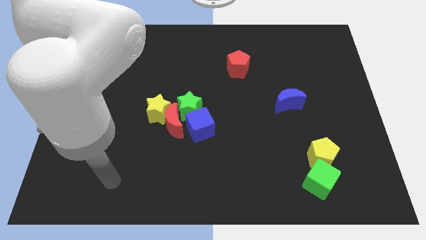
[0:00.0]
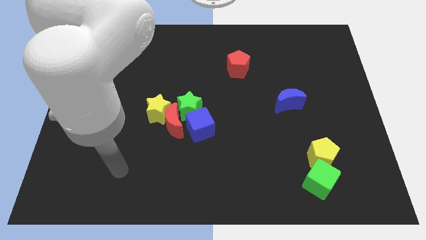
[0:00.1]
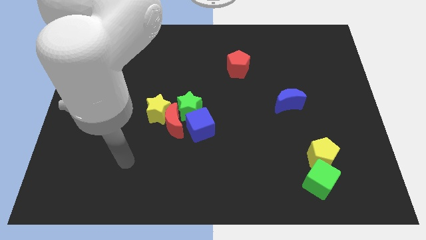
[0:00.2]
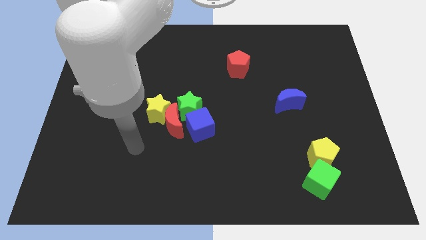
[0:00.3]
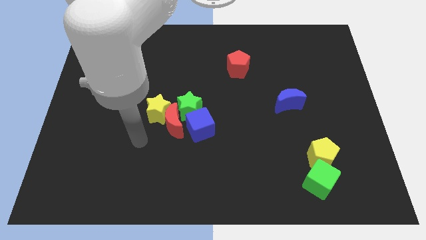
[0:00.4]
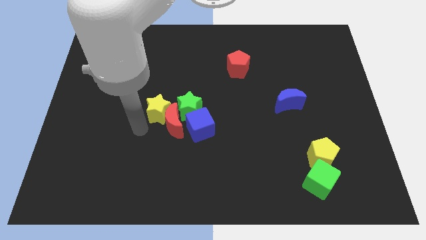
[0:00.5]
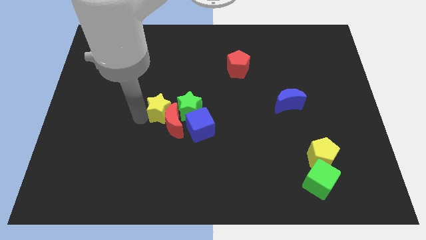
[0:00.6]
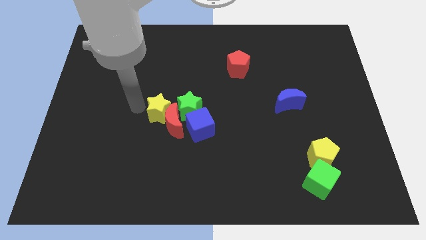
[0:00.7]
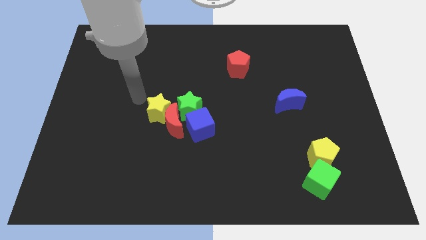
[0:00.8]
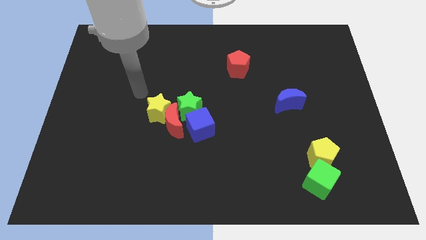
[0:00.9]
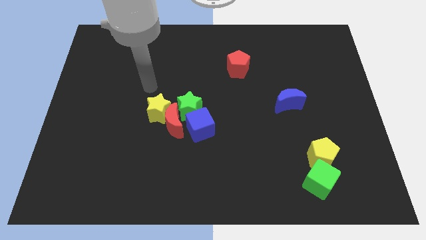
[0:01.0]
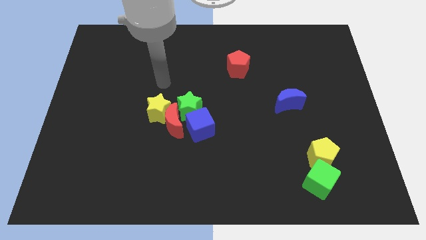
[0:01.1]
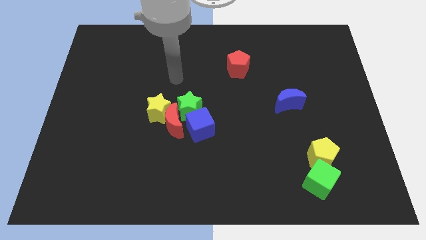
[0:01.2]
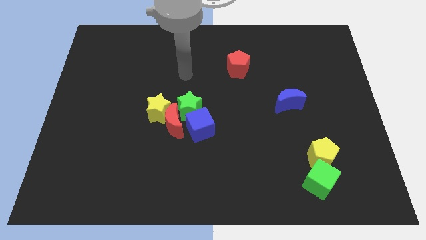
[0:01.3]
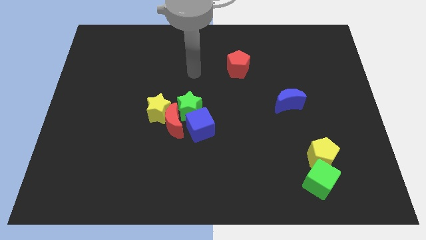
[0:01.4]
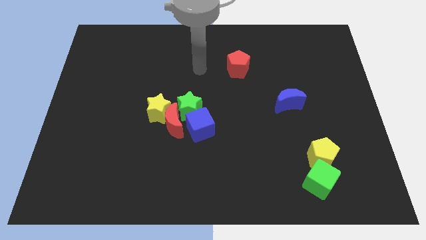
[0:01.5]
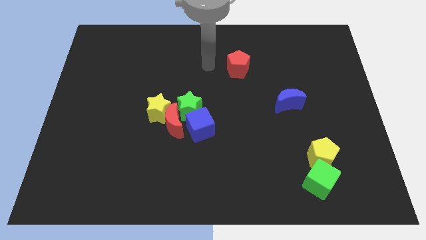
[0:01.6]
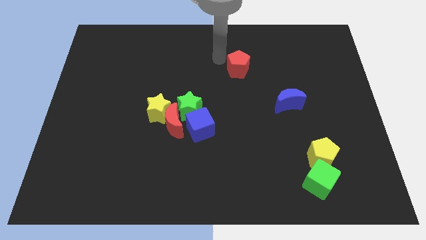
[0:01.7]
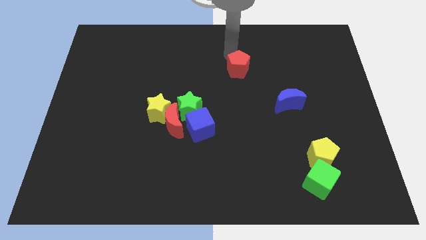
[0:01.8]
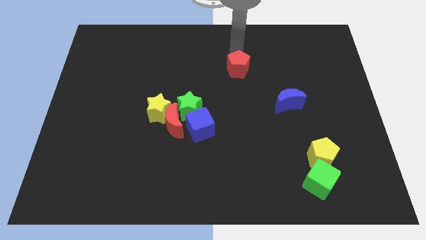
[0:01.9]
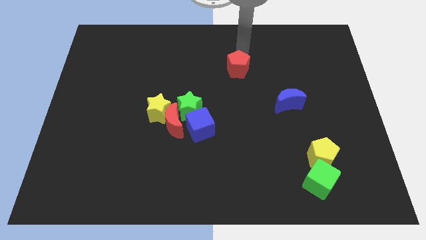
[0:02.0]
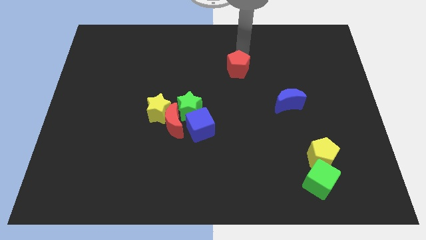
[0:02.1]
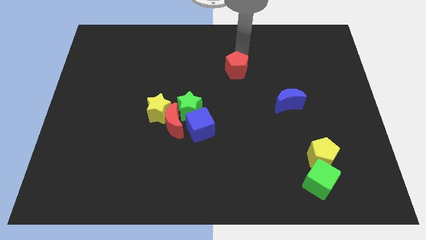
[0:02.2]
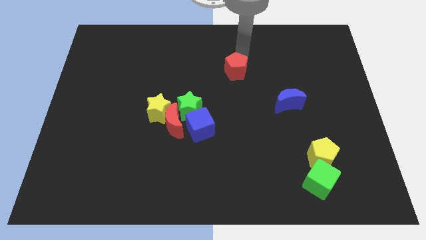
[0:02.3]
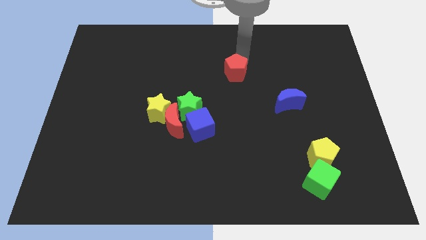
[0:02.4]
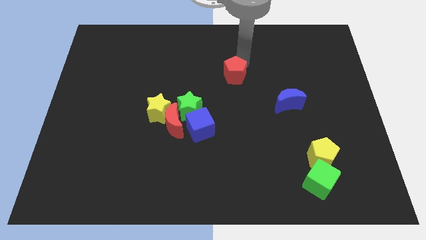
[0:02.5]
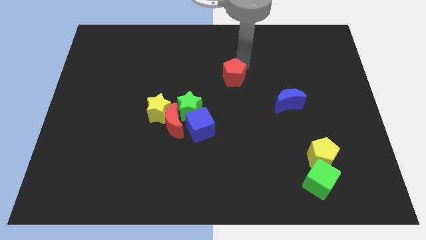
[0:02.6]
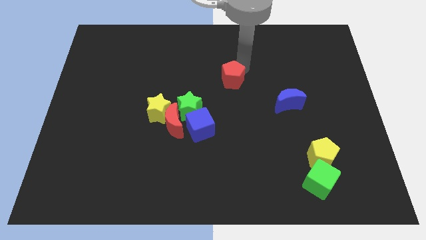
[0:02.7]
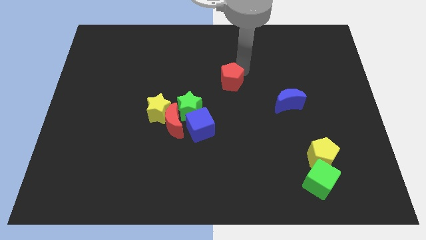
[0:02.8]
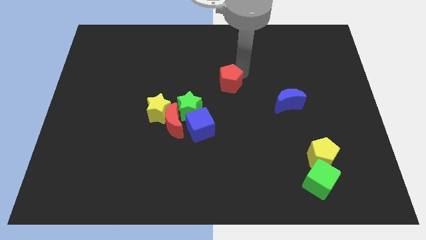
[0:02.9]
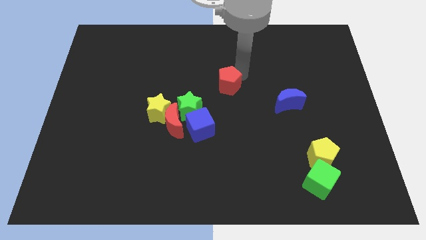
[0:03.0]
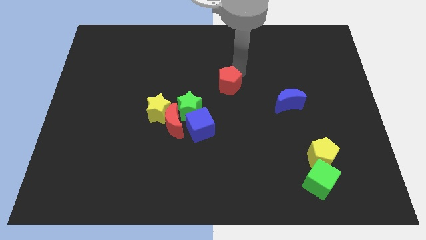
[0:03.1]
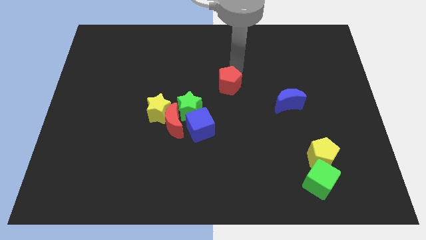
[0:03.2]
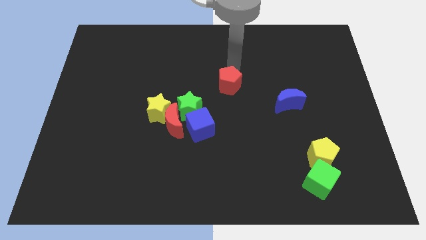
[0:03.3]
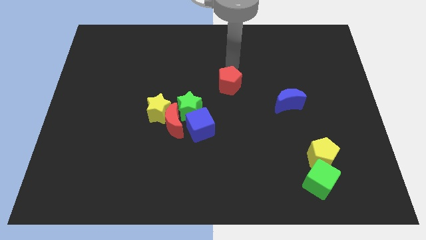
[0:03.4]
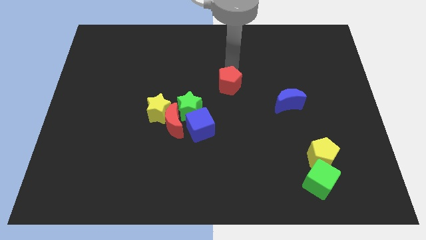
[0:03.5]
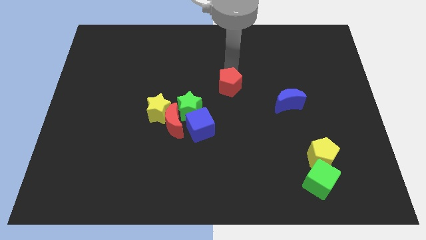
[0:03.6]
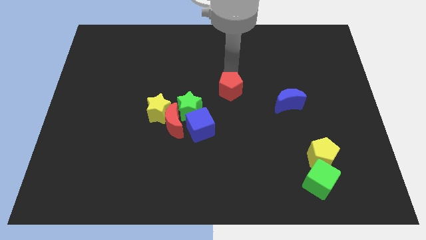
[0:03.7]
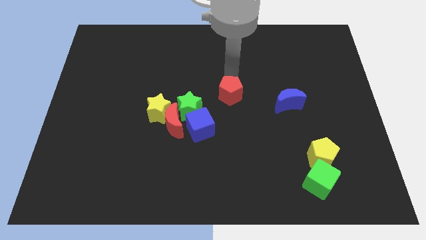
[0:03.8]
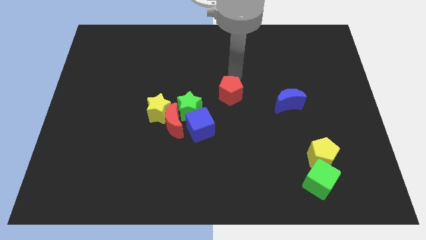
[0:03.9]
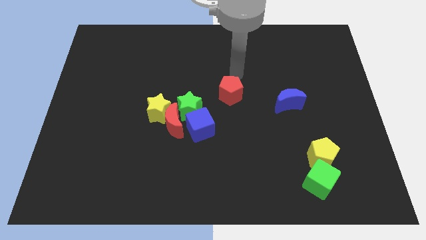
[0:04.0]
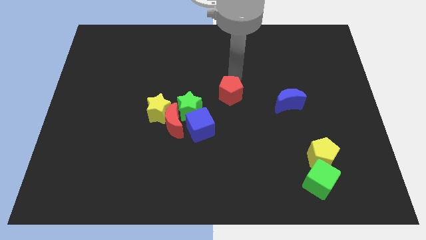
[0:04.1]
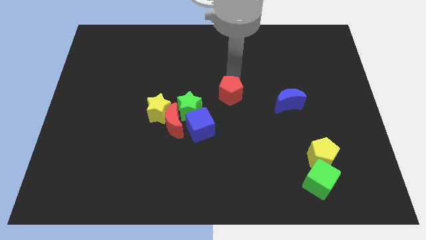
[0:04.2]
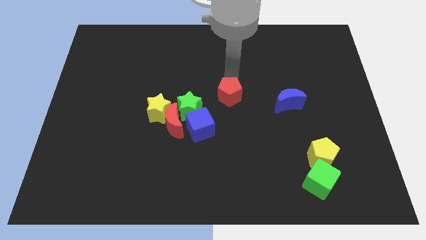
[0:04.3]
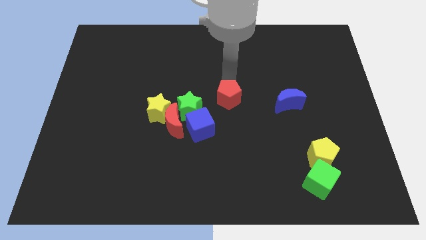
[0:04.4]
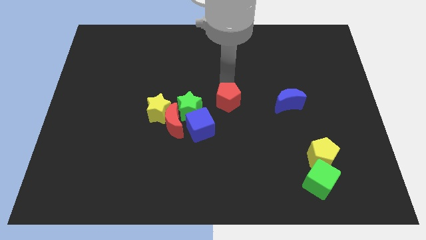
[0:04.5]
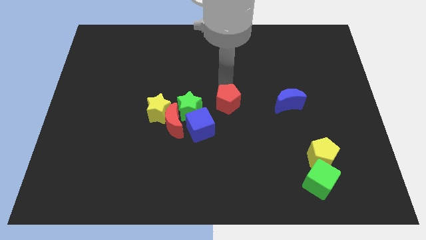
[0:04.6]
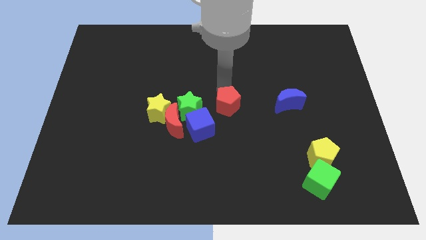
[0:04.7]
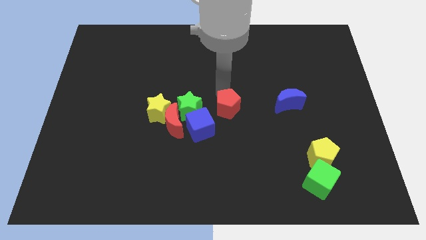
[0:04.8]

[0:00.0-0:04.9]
slide the red pentagon to the right of the red moon

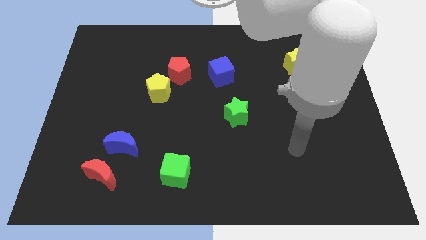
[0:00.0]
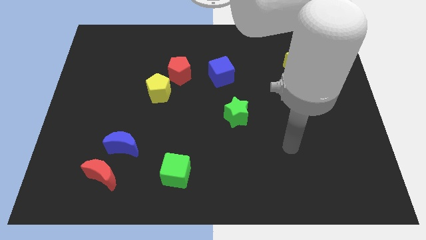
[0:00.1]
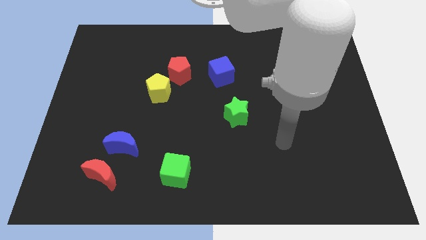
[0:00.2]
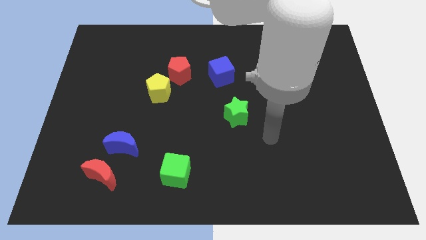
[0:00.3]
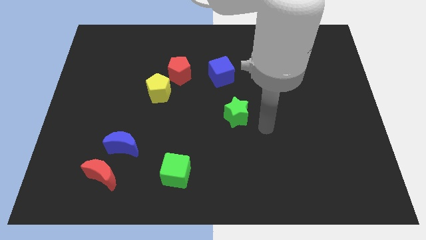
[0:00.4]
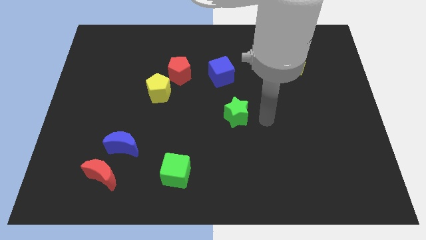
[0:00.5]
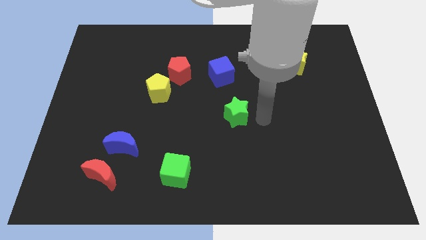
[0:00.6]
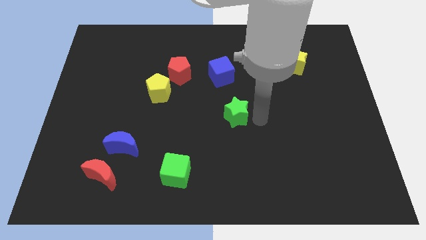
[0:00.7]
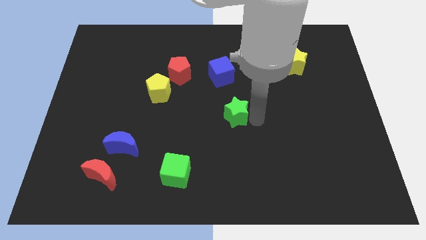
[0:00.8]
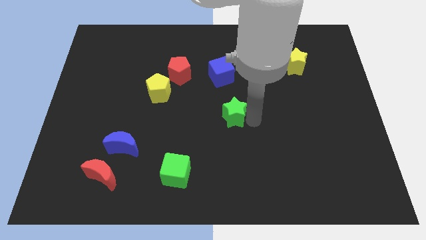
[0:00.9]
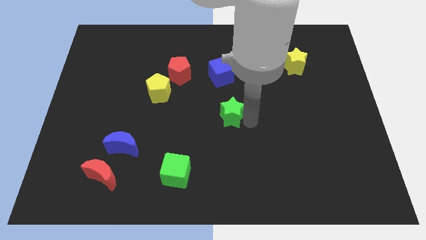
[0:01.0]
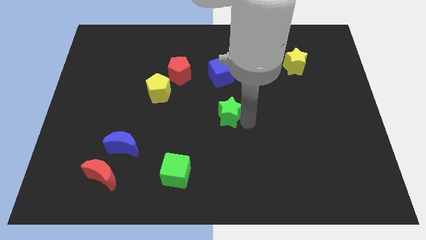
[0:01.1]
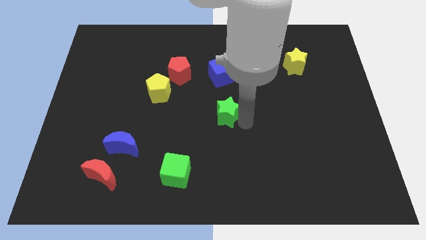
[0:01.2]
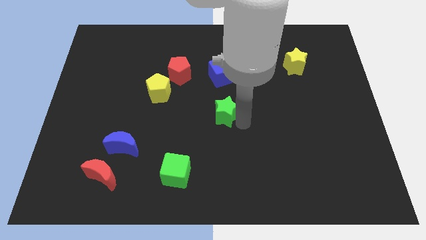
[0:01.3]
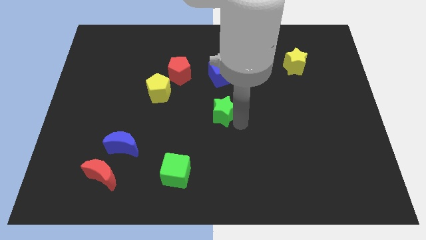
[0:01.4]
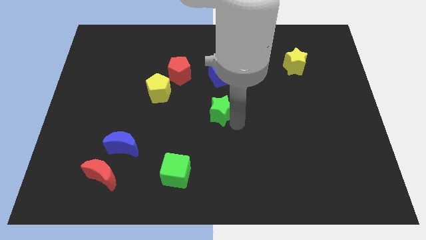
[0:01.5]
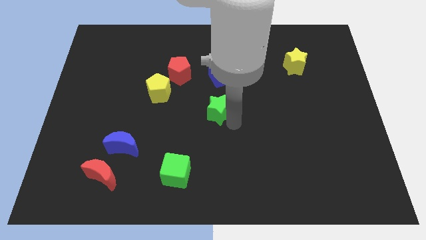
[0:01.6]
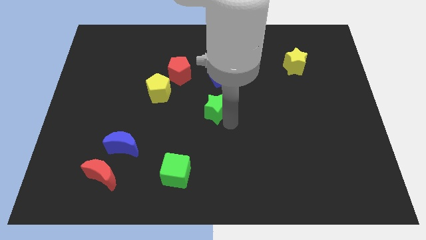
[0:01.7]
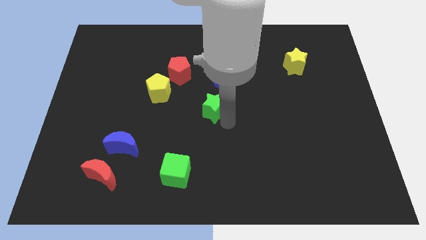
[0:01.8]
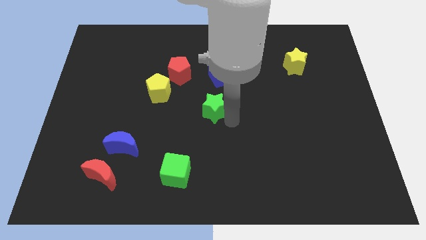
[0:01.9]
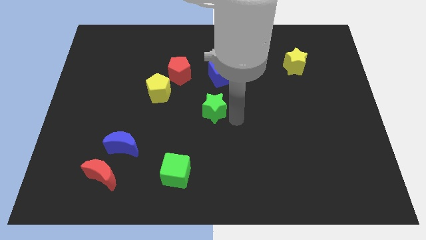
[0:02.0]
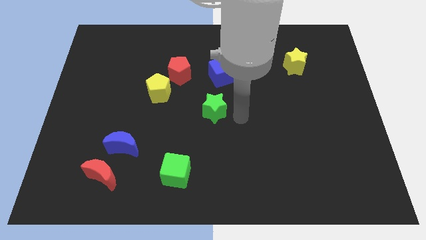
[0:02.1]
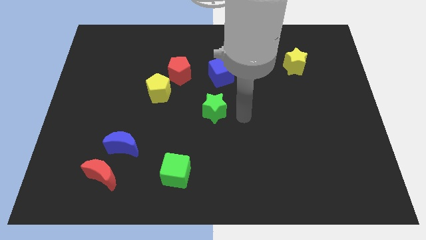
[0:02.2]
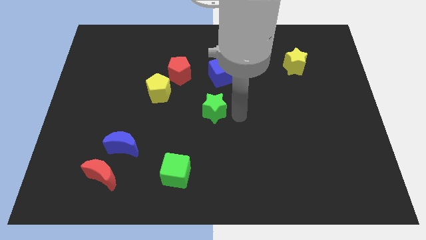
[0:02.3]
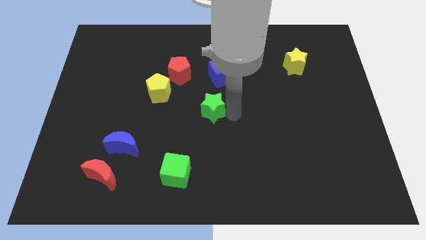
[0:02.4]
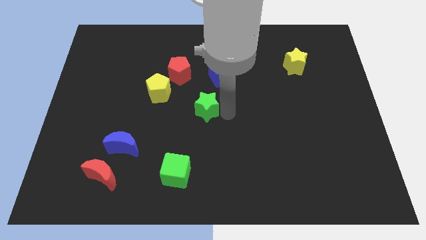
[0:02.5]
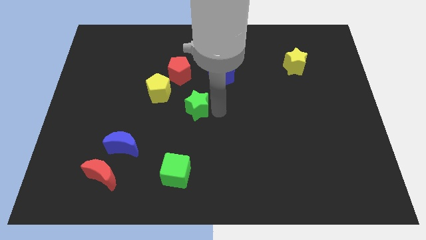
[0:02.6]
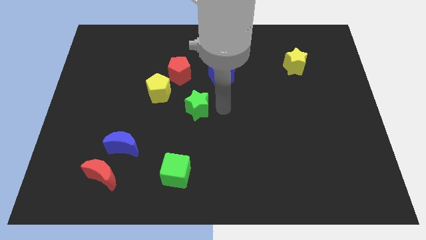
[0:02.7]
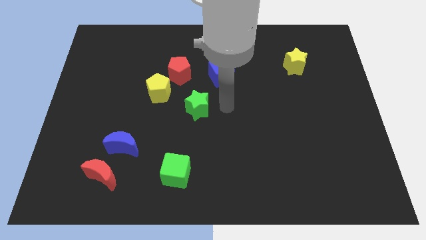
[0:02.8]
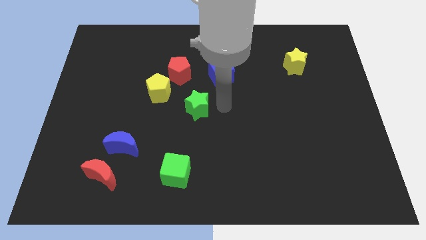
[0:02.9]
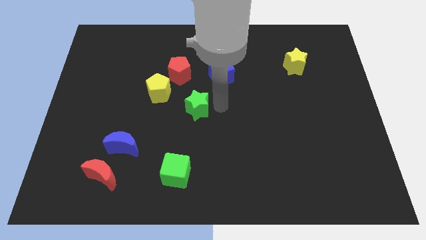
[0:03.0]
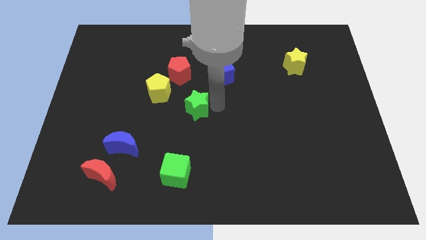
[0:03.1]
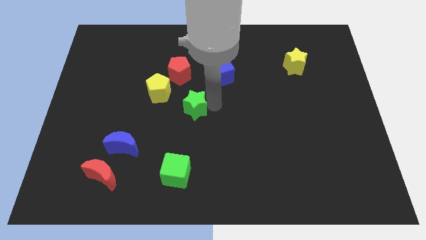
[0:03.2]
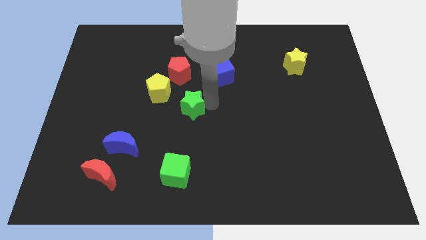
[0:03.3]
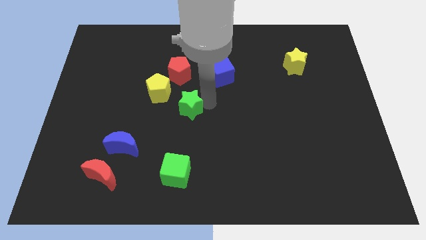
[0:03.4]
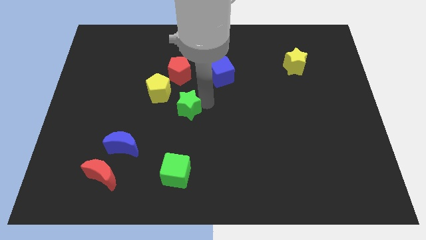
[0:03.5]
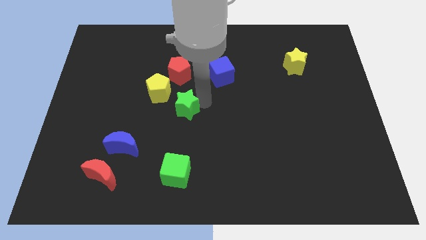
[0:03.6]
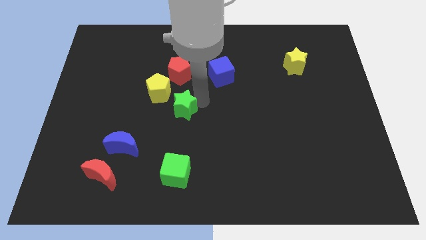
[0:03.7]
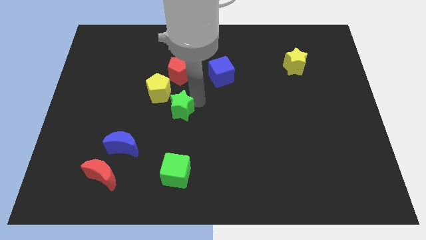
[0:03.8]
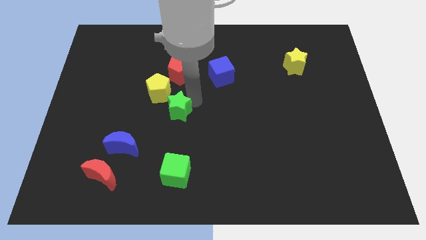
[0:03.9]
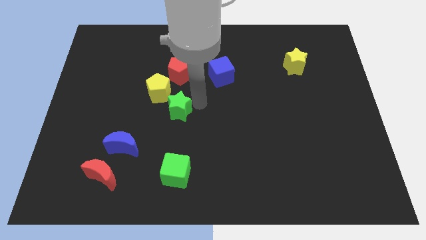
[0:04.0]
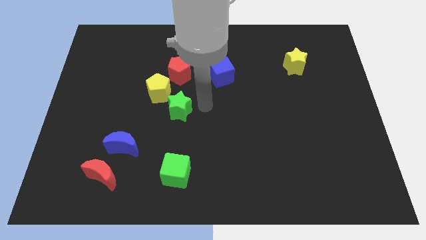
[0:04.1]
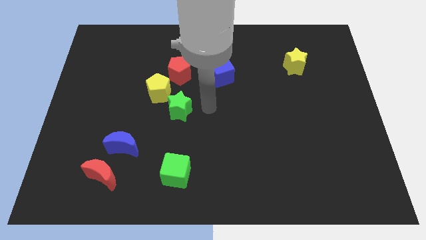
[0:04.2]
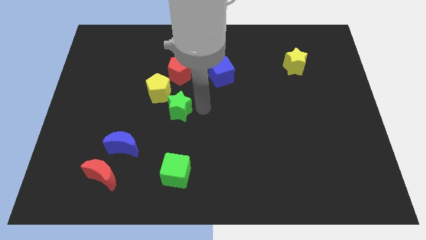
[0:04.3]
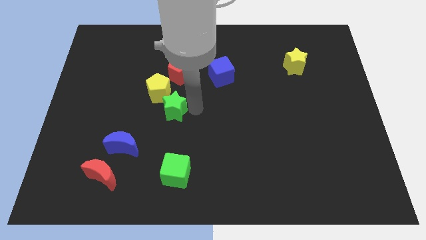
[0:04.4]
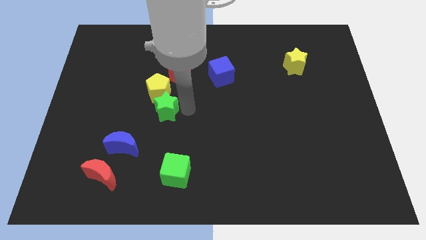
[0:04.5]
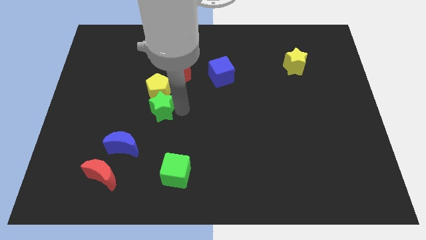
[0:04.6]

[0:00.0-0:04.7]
put the green star to the bottom left side of the yellow pentagon
